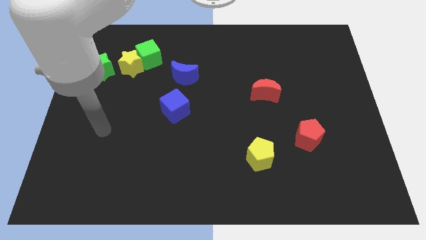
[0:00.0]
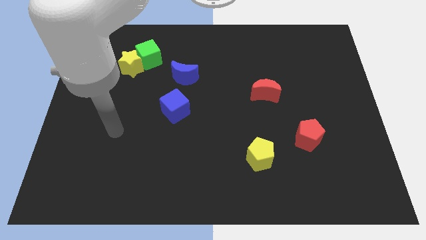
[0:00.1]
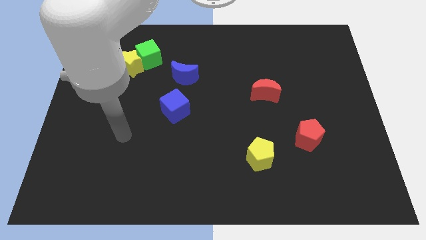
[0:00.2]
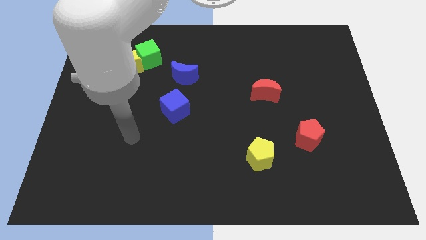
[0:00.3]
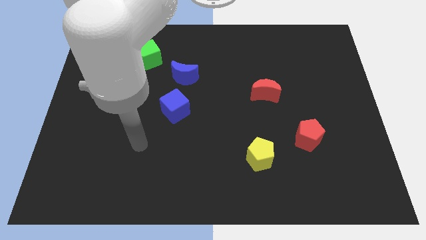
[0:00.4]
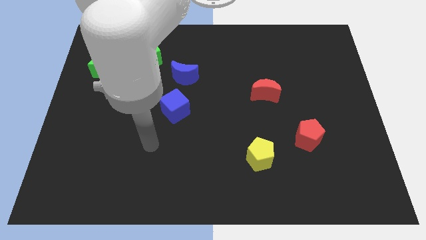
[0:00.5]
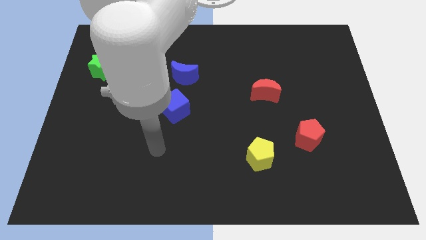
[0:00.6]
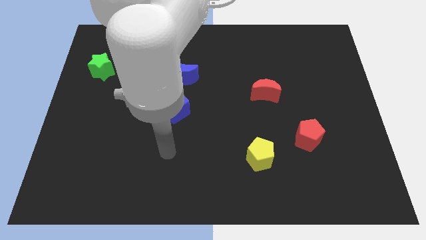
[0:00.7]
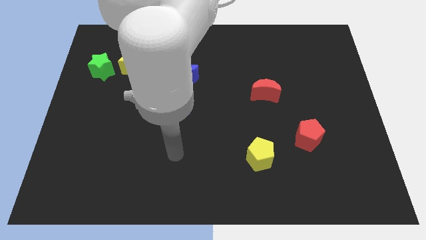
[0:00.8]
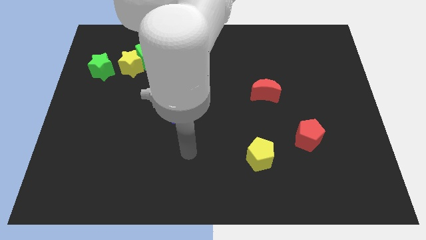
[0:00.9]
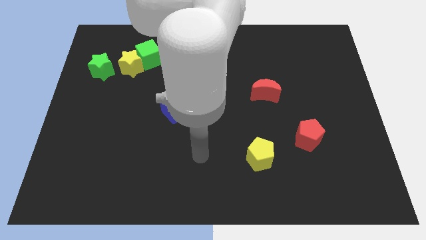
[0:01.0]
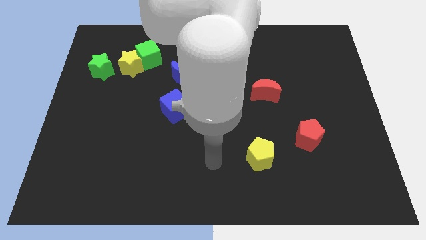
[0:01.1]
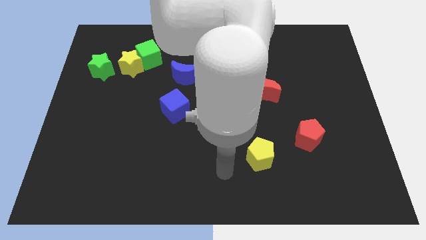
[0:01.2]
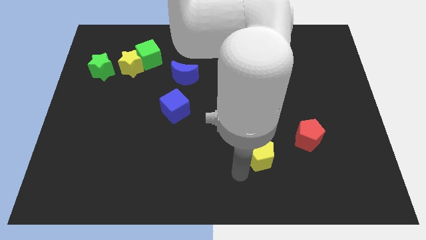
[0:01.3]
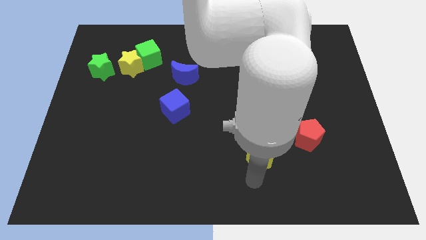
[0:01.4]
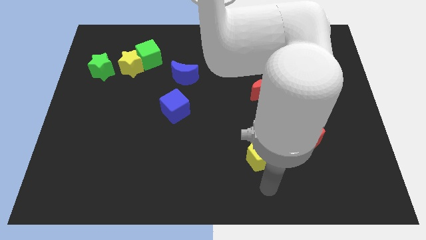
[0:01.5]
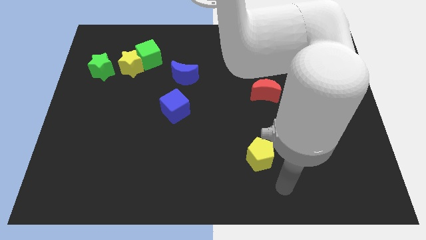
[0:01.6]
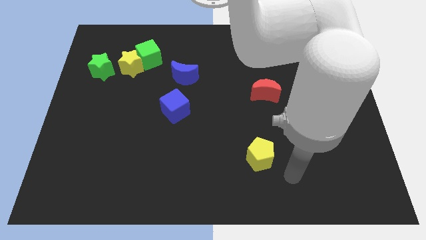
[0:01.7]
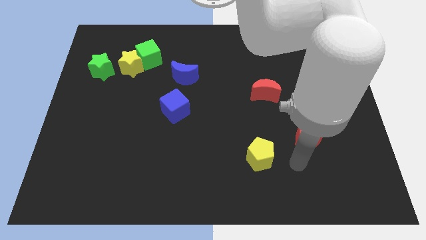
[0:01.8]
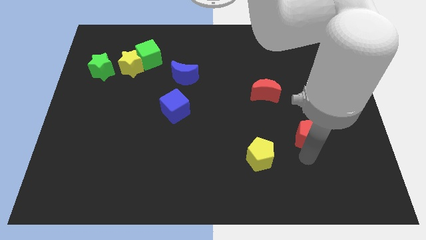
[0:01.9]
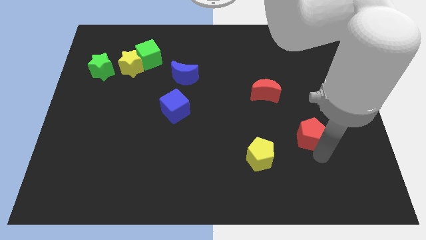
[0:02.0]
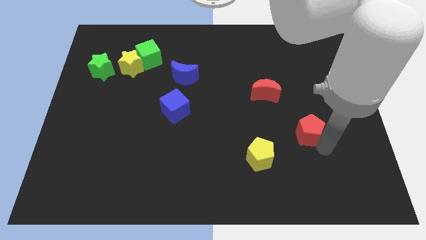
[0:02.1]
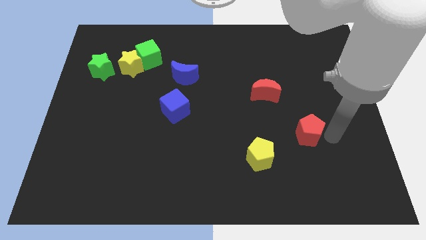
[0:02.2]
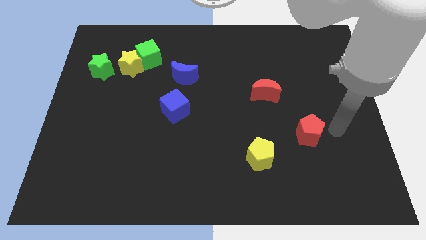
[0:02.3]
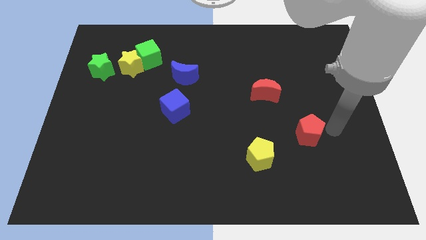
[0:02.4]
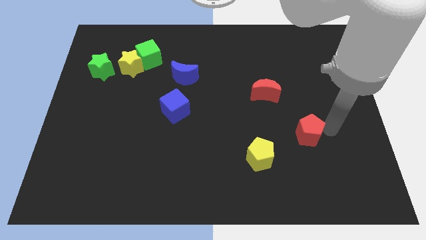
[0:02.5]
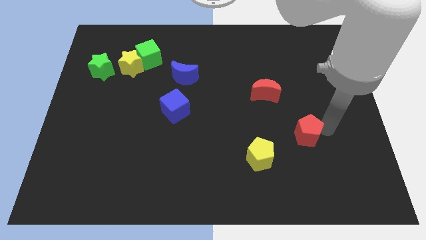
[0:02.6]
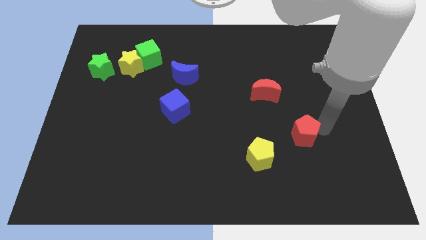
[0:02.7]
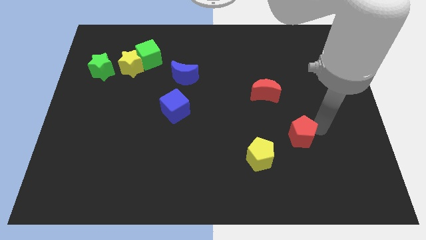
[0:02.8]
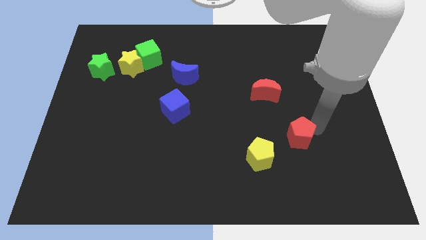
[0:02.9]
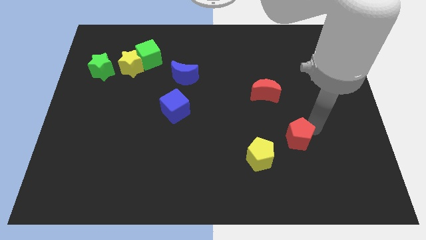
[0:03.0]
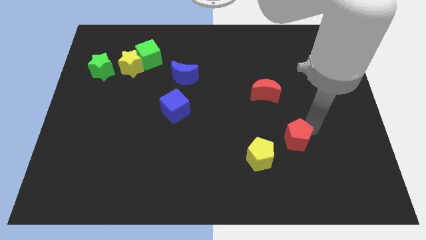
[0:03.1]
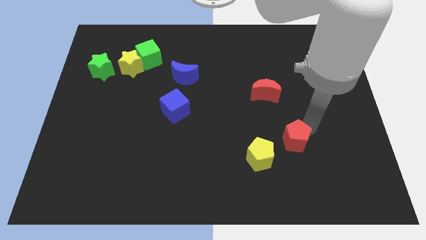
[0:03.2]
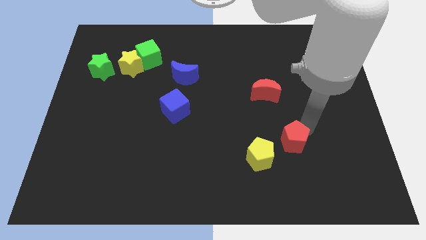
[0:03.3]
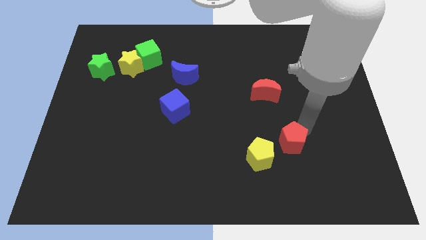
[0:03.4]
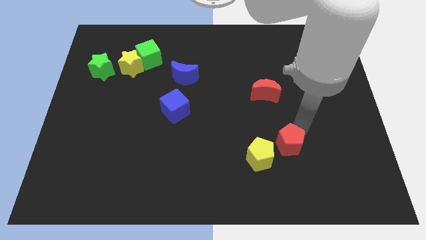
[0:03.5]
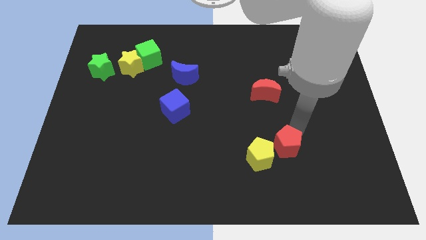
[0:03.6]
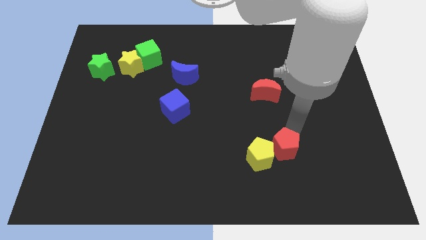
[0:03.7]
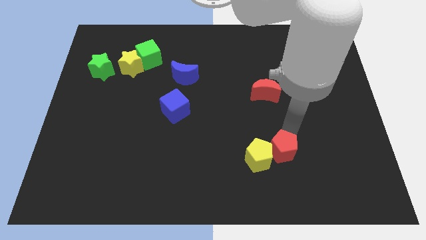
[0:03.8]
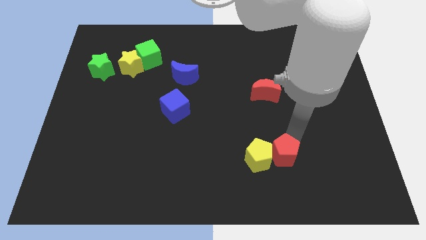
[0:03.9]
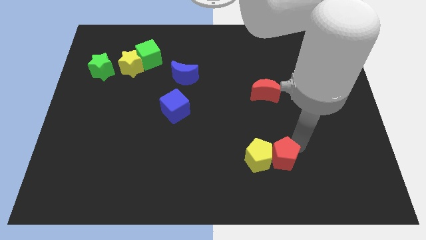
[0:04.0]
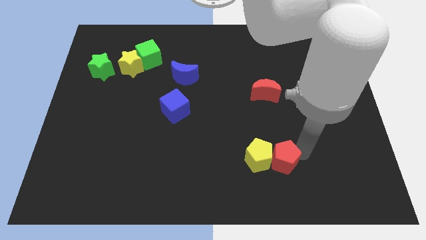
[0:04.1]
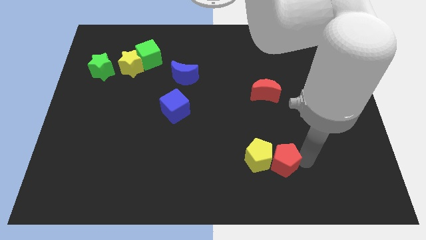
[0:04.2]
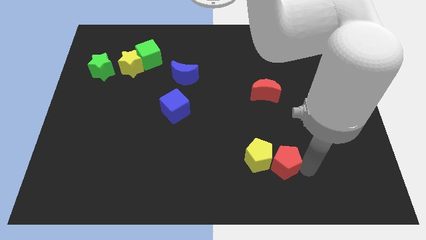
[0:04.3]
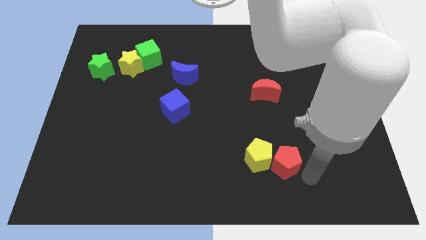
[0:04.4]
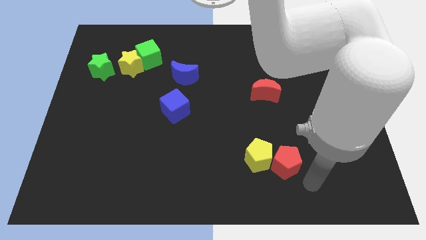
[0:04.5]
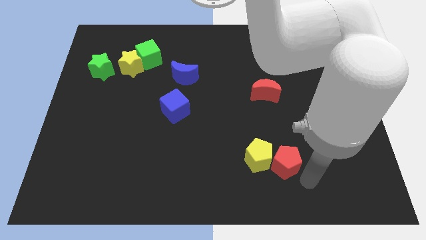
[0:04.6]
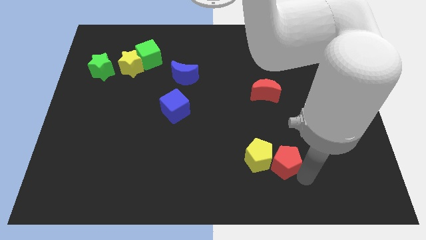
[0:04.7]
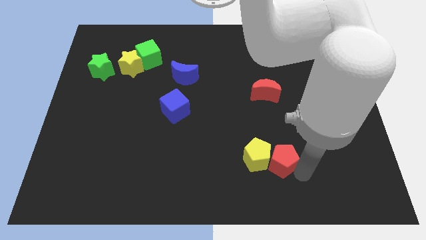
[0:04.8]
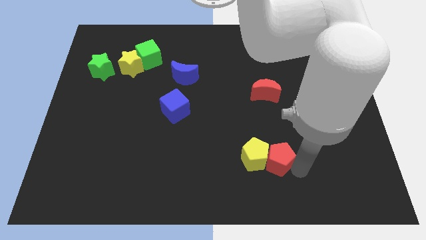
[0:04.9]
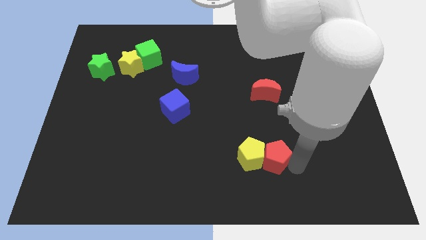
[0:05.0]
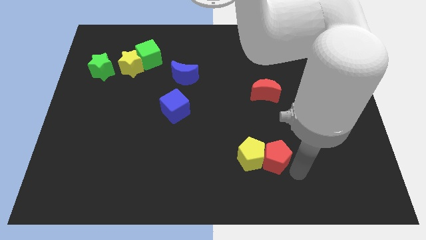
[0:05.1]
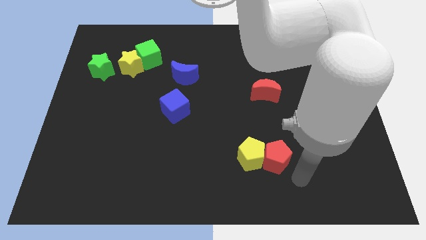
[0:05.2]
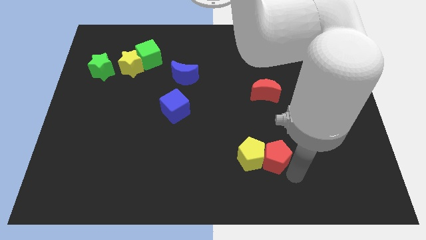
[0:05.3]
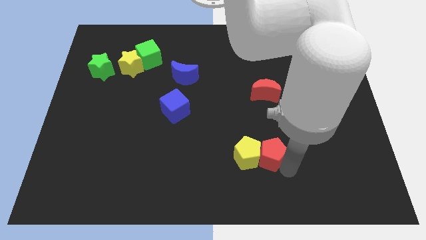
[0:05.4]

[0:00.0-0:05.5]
push the red pentagon a little to the left

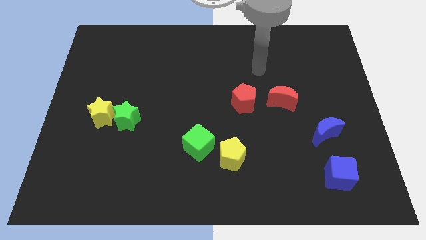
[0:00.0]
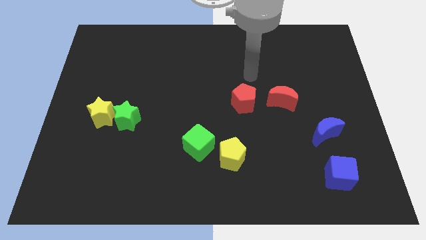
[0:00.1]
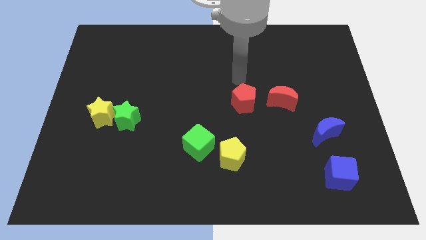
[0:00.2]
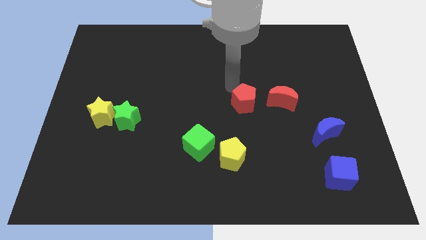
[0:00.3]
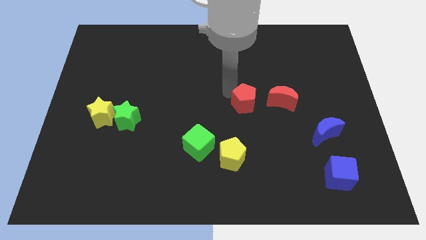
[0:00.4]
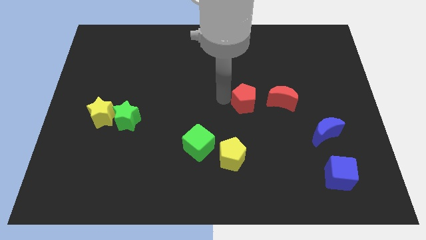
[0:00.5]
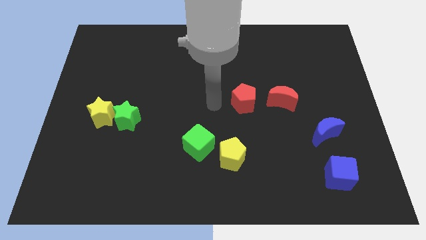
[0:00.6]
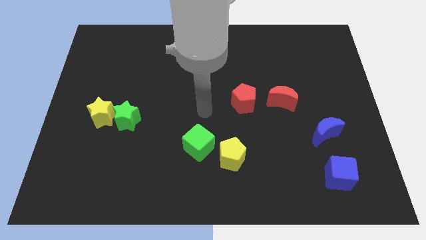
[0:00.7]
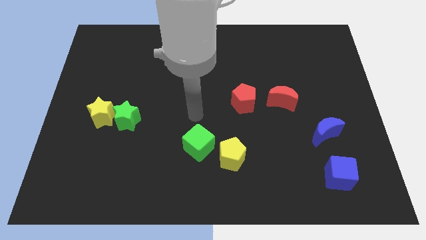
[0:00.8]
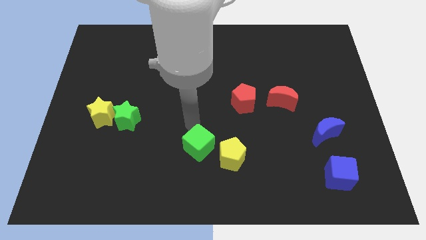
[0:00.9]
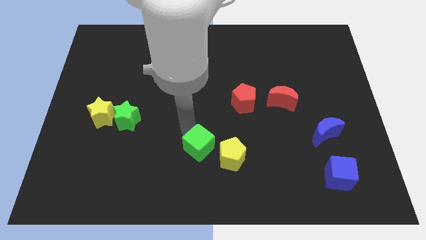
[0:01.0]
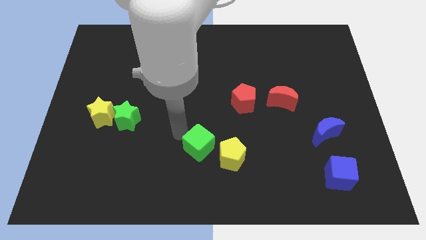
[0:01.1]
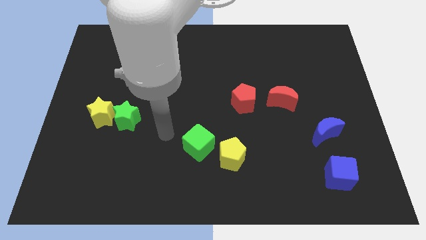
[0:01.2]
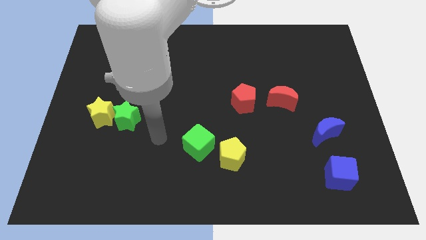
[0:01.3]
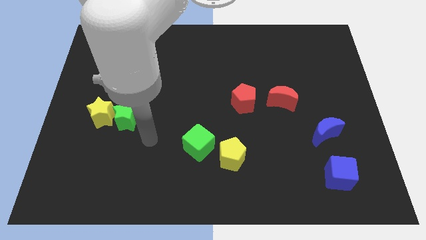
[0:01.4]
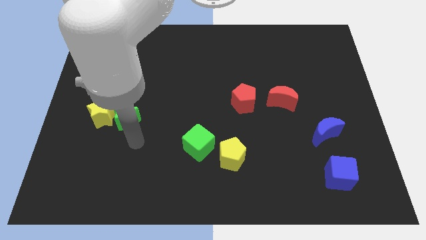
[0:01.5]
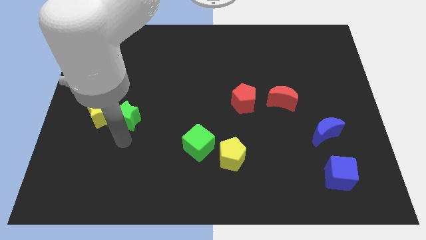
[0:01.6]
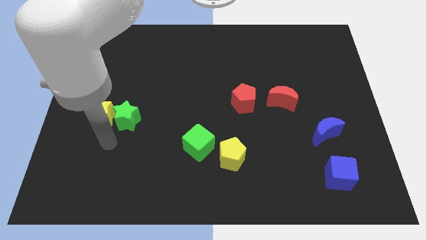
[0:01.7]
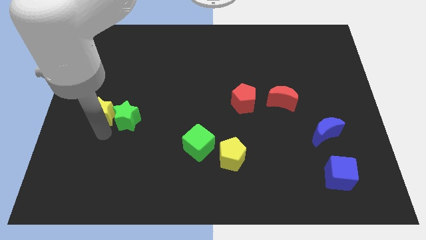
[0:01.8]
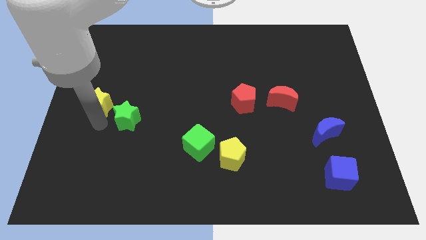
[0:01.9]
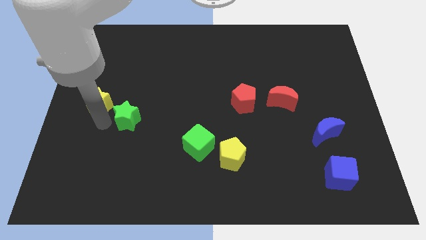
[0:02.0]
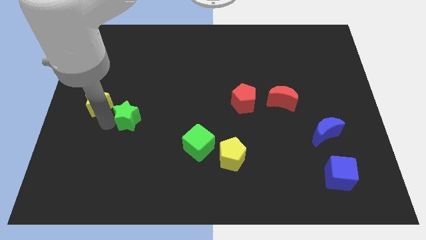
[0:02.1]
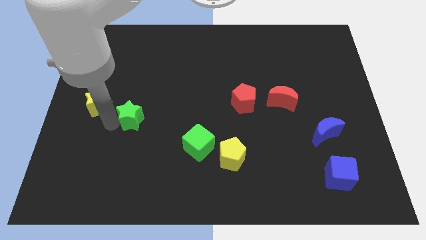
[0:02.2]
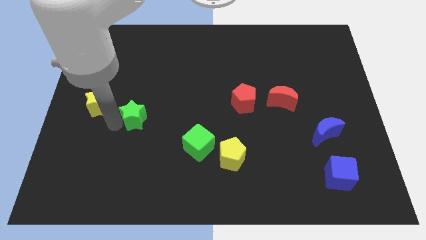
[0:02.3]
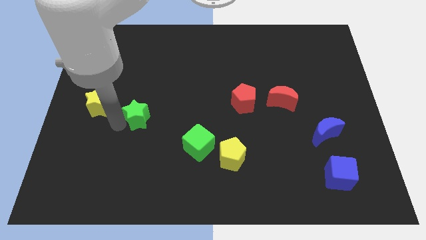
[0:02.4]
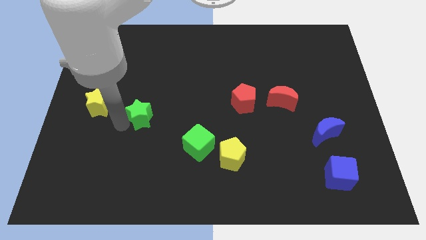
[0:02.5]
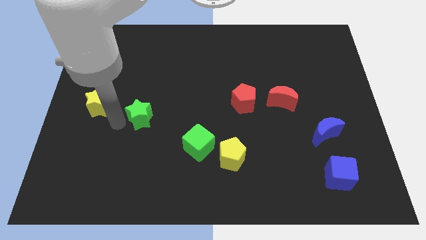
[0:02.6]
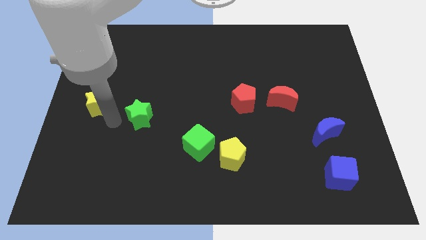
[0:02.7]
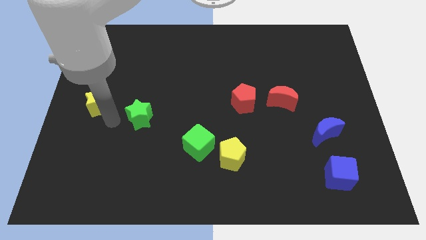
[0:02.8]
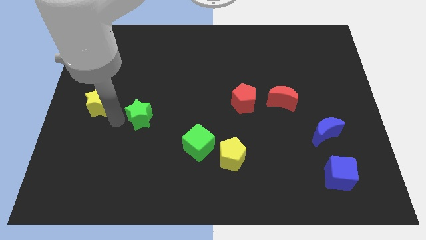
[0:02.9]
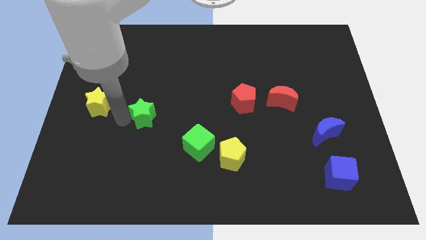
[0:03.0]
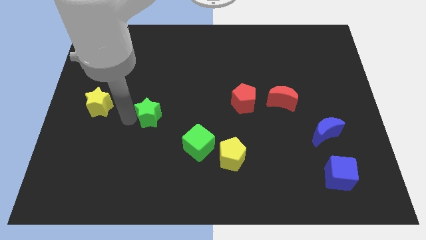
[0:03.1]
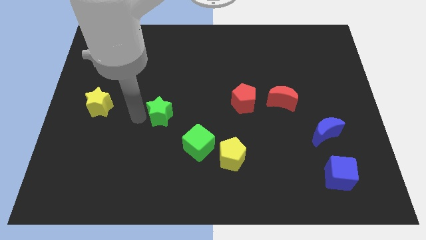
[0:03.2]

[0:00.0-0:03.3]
push the green star slightly right
